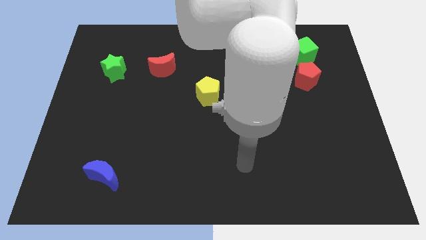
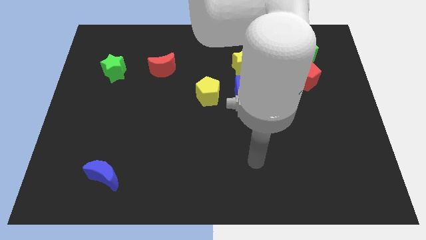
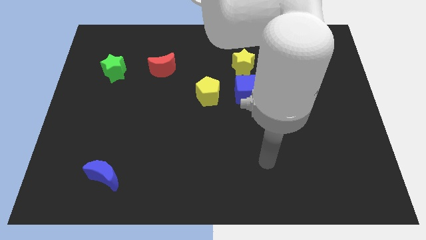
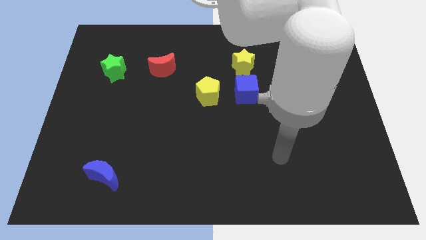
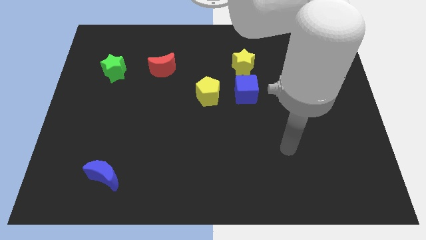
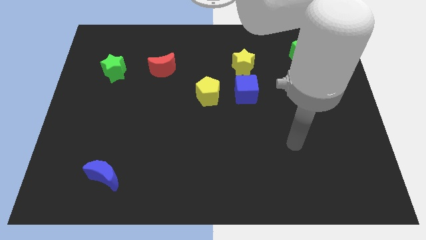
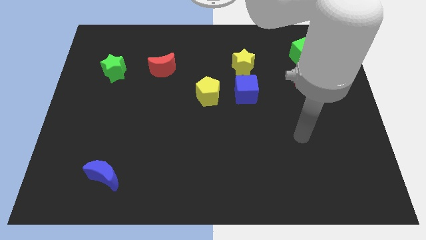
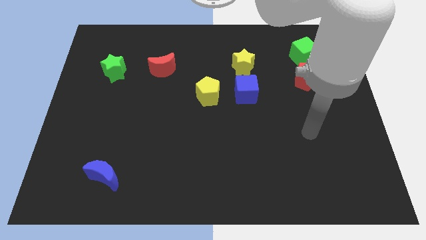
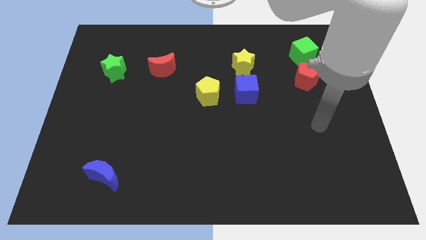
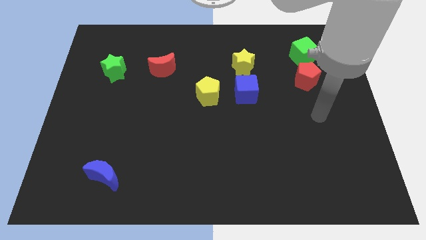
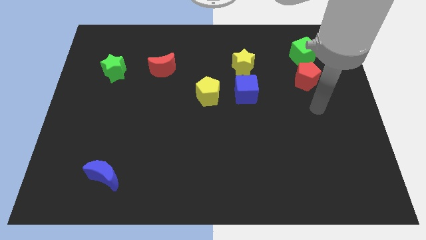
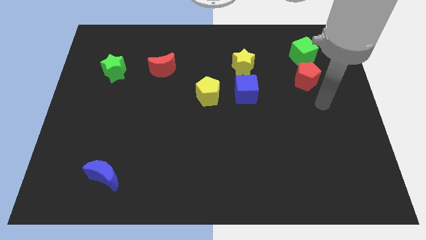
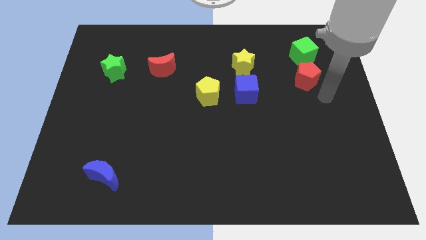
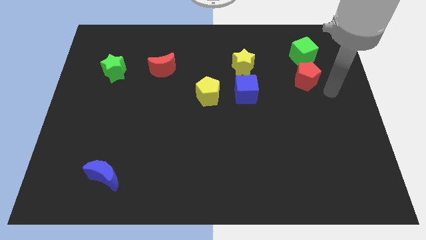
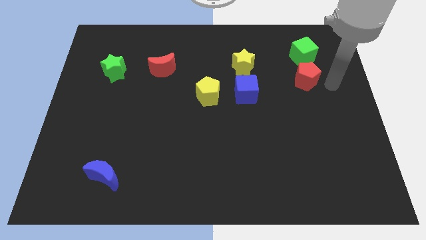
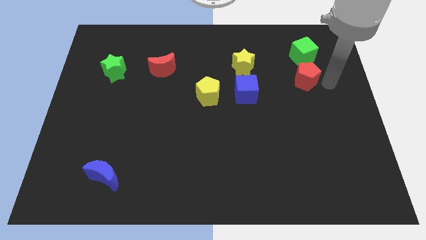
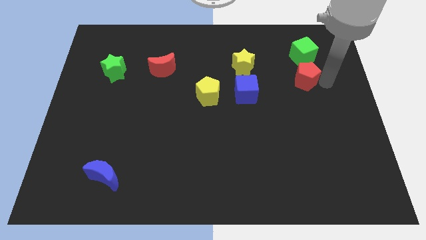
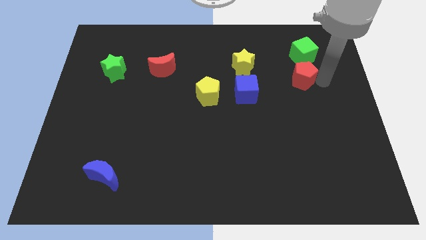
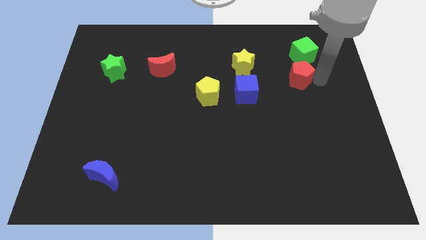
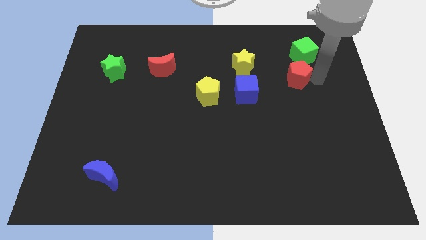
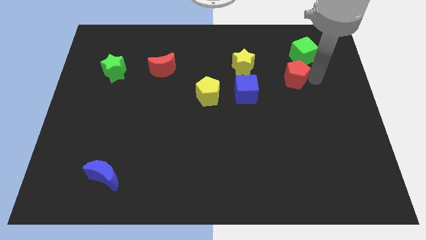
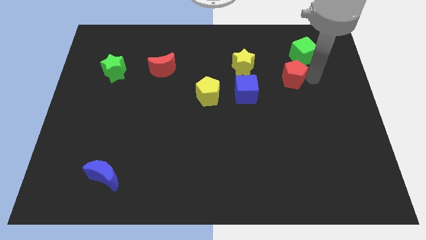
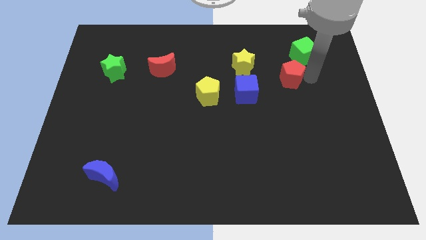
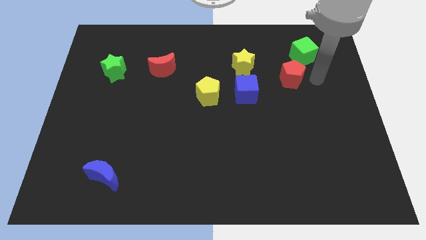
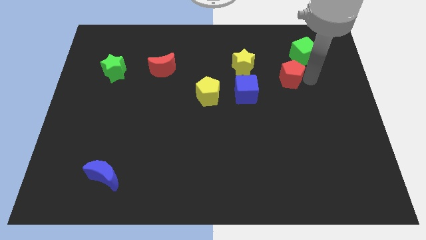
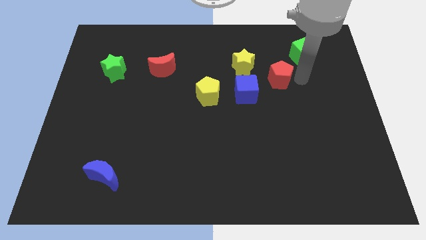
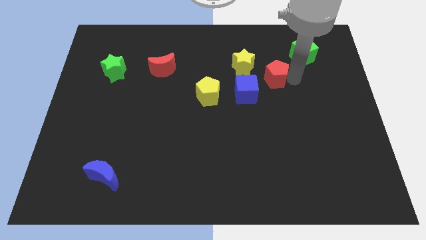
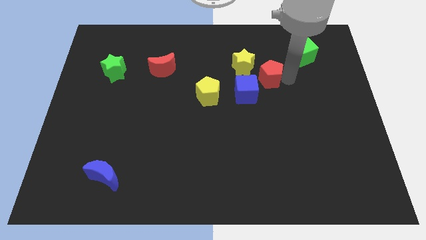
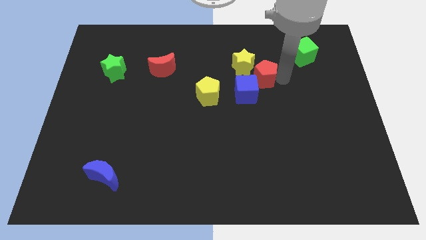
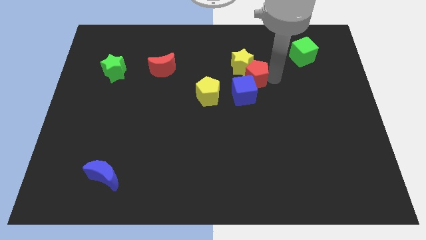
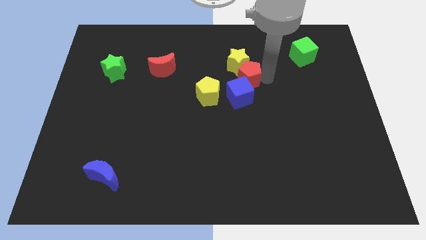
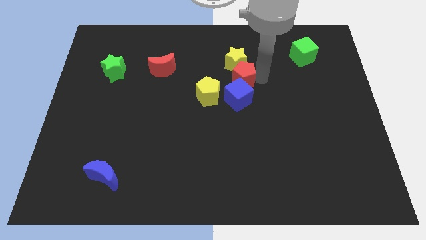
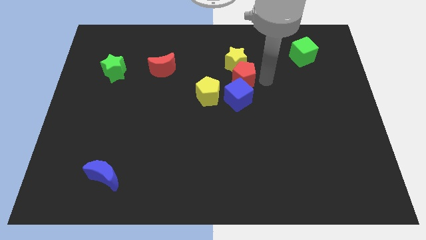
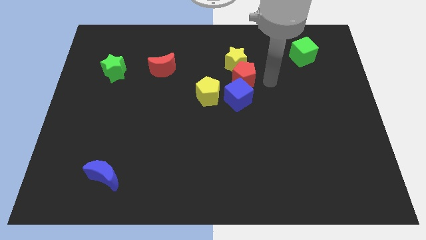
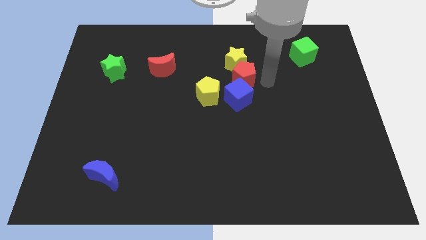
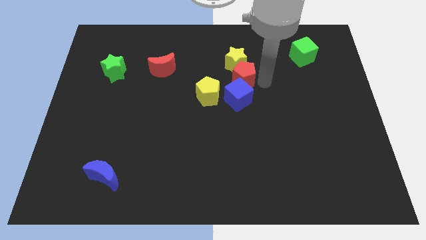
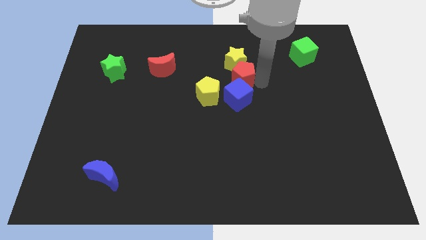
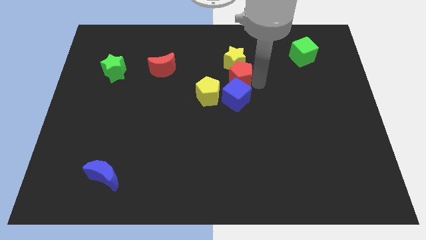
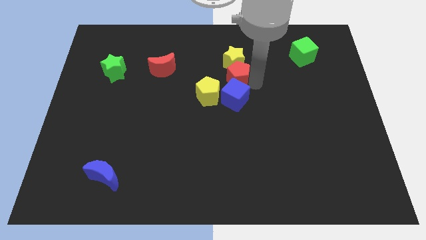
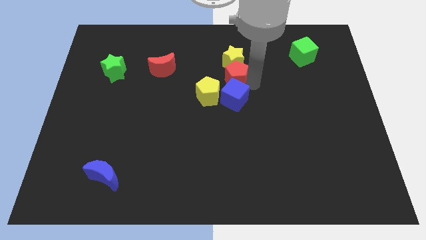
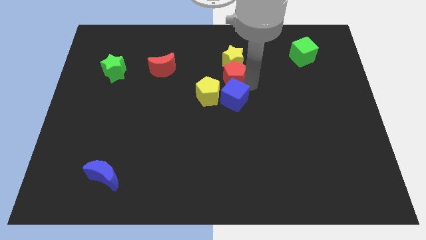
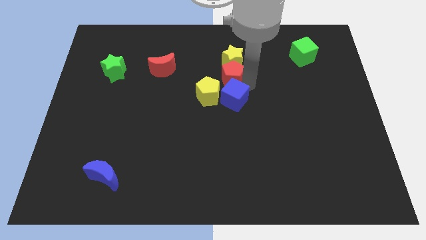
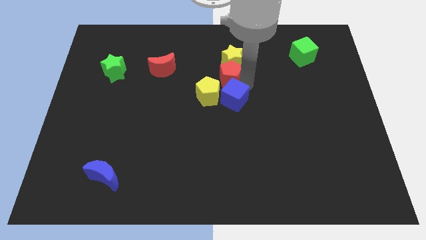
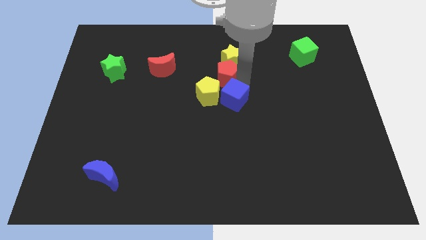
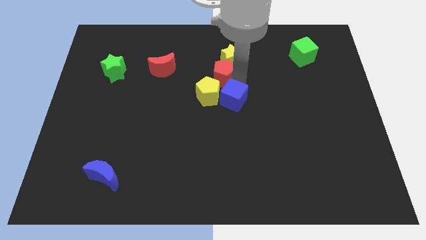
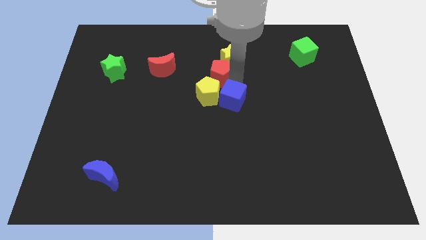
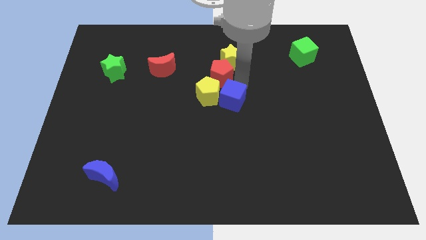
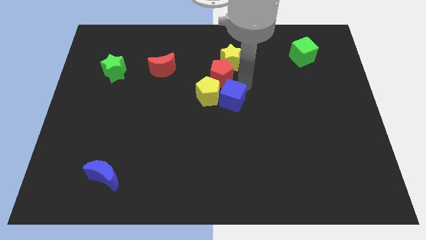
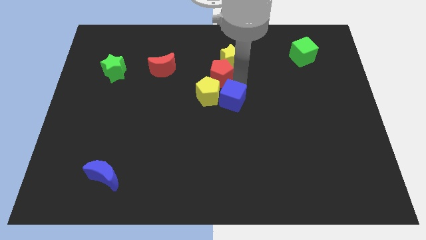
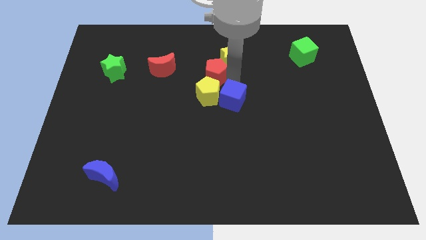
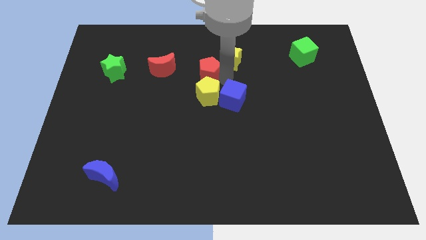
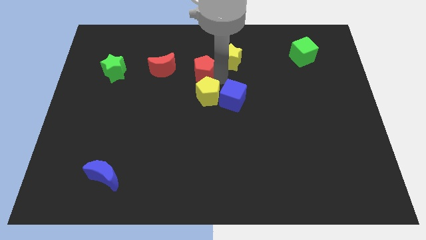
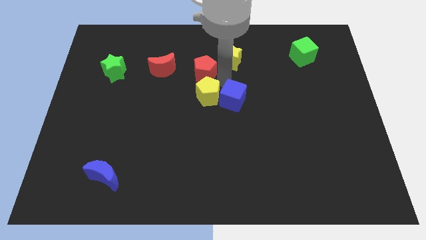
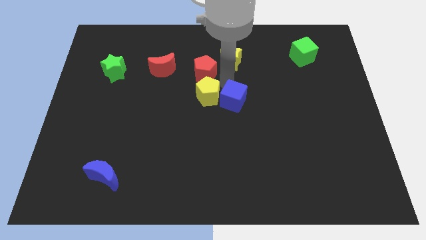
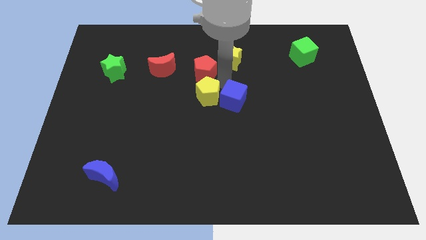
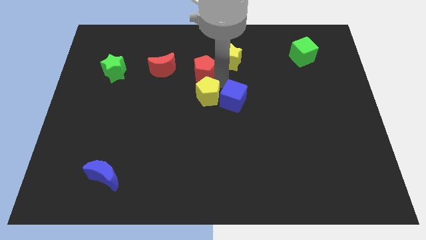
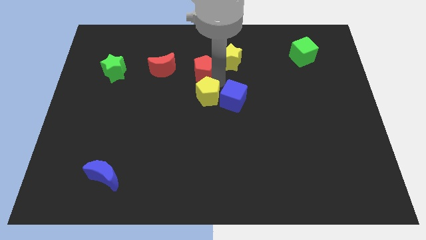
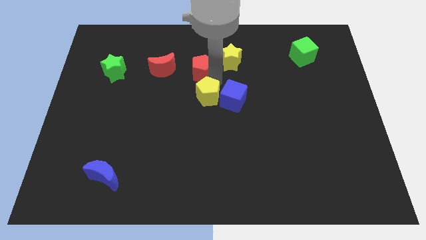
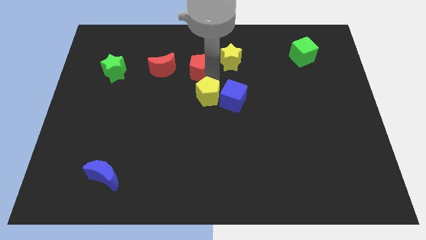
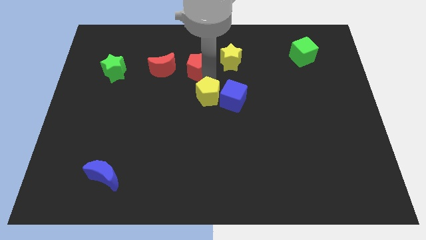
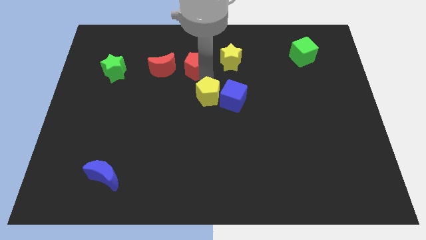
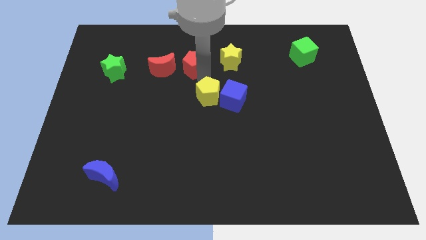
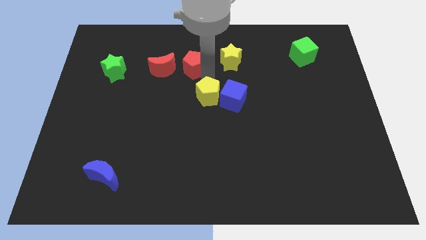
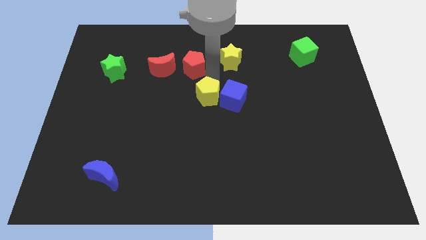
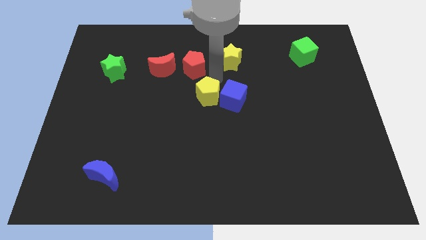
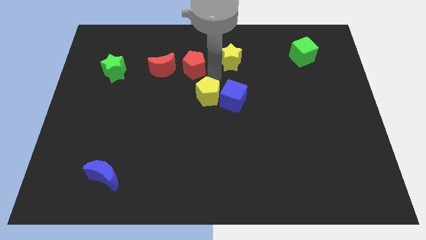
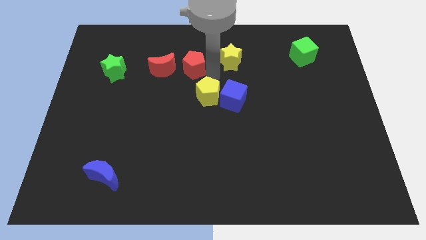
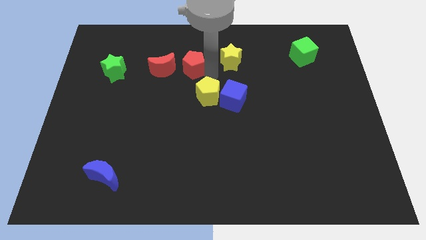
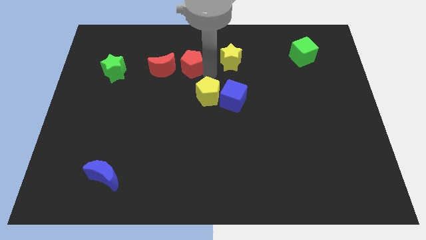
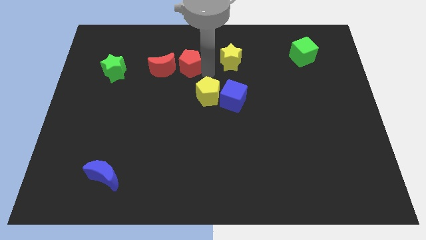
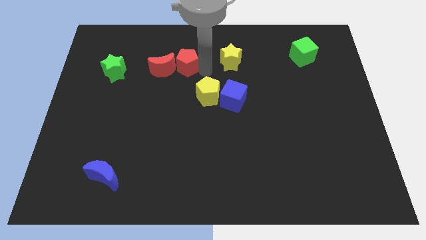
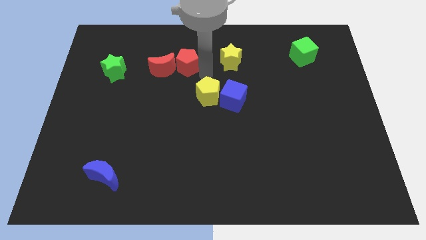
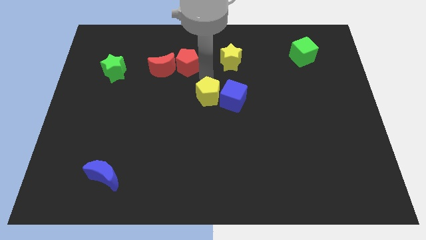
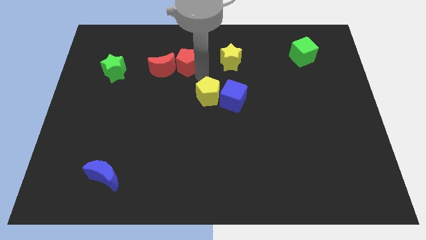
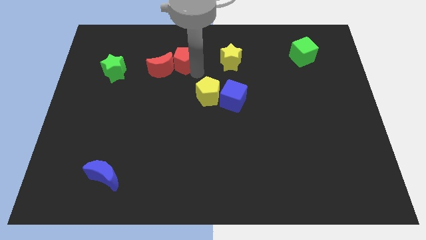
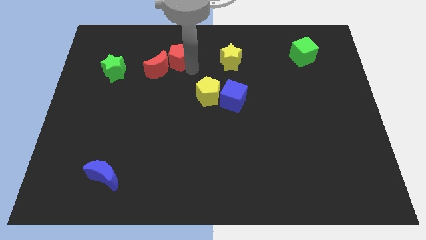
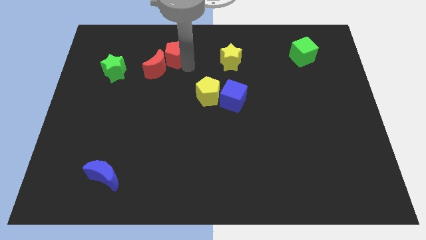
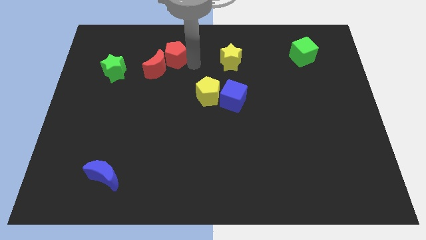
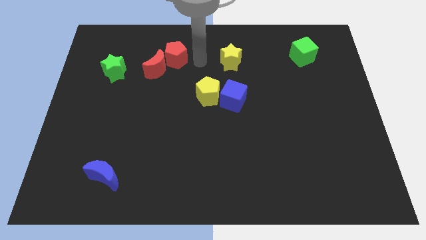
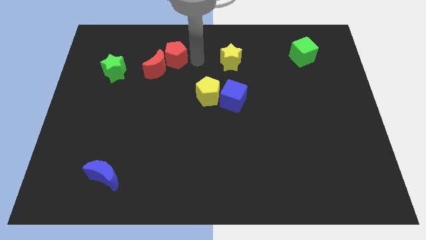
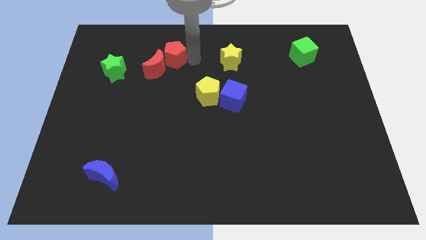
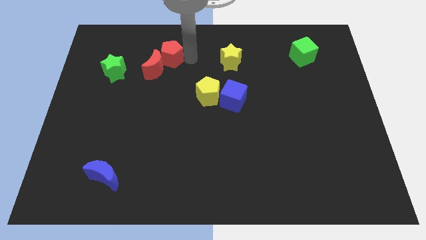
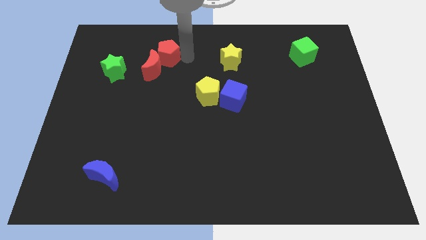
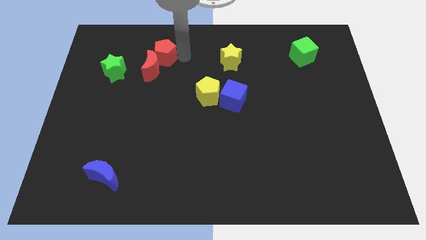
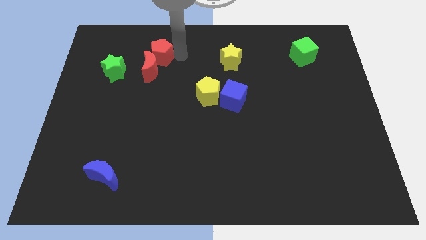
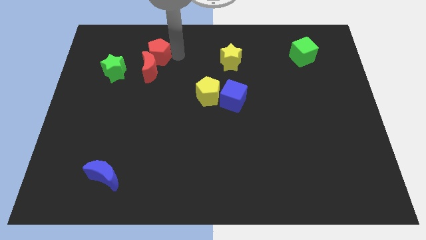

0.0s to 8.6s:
push the red pentagon diagonally up and to the left of the red moon
